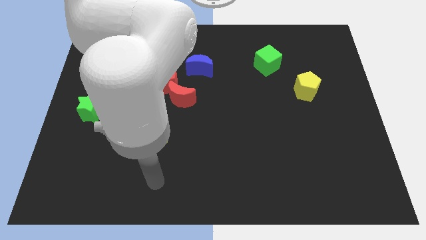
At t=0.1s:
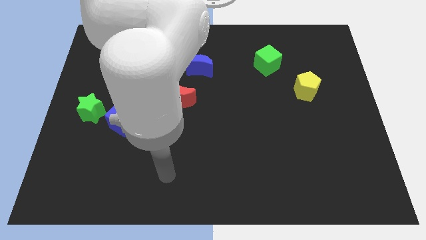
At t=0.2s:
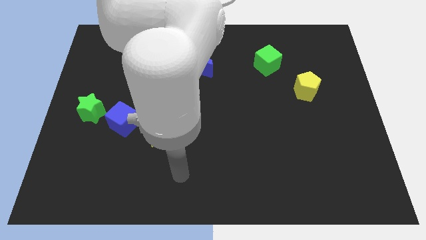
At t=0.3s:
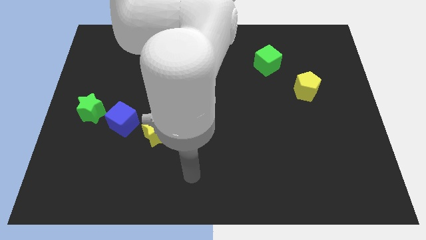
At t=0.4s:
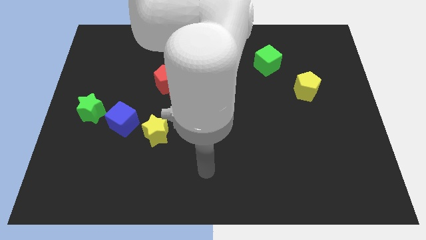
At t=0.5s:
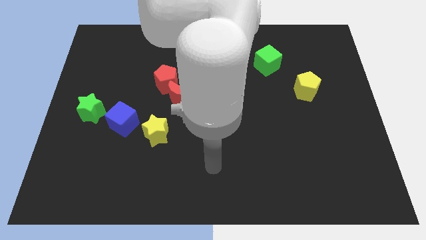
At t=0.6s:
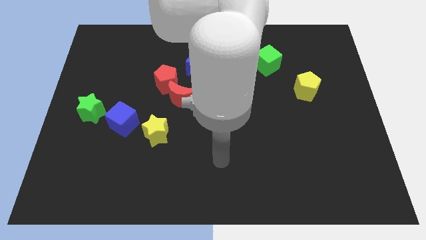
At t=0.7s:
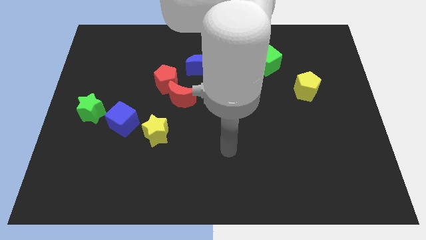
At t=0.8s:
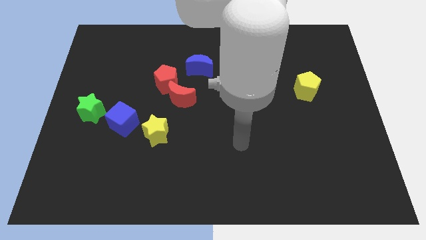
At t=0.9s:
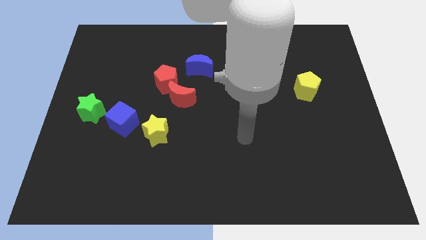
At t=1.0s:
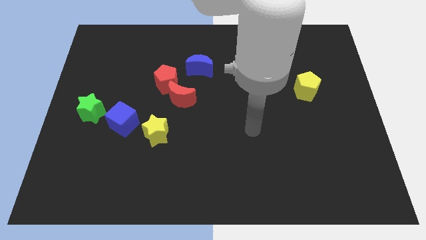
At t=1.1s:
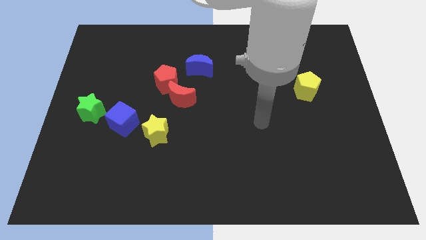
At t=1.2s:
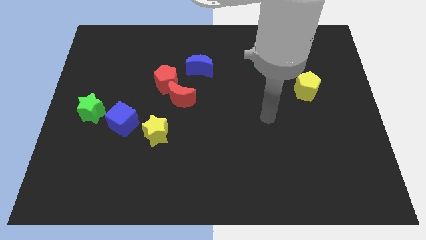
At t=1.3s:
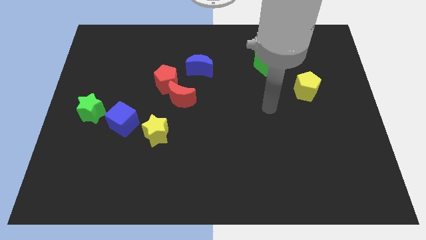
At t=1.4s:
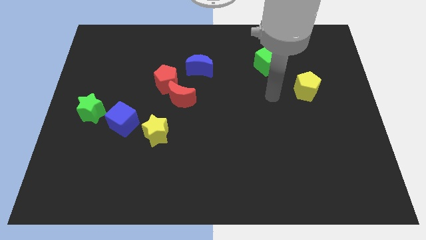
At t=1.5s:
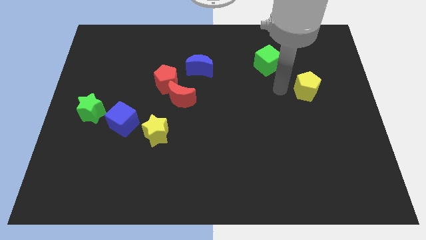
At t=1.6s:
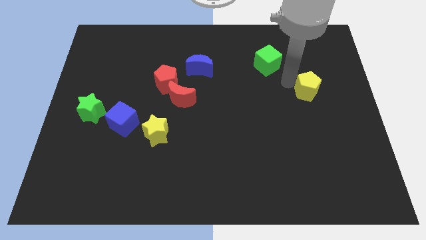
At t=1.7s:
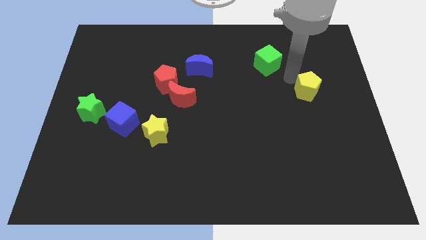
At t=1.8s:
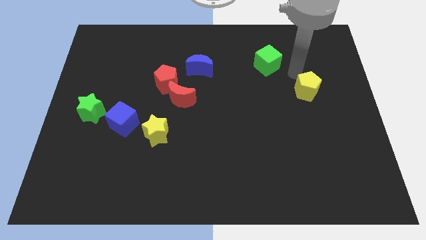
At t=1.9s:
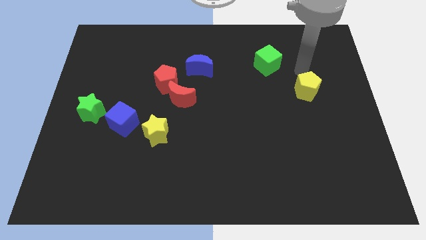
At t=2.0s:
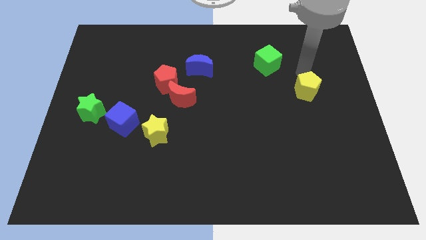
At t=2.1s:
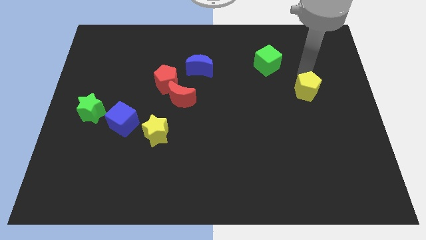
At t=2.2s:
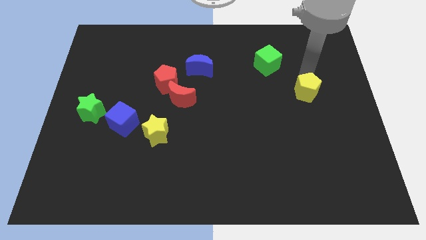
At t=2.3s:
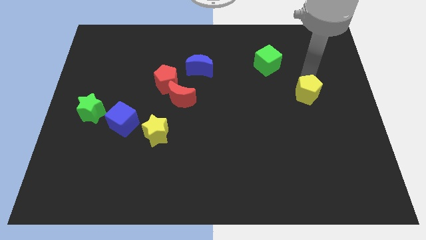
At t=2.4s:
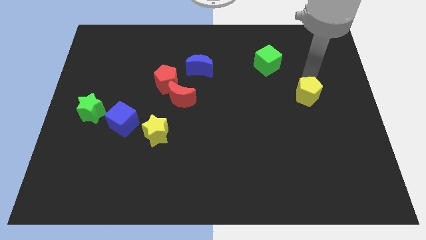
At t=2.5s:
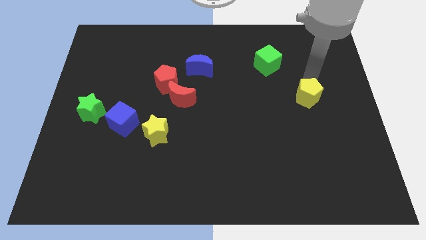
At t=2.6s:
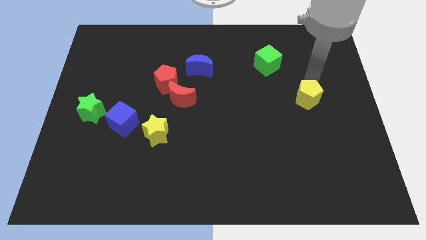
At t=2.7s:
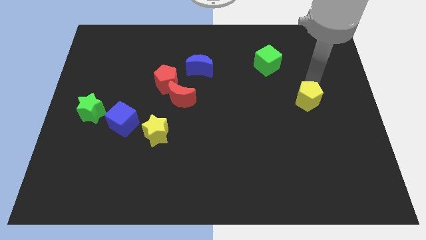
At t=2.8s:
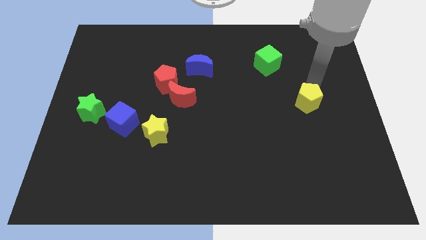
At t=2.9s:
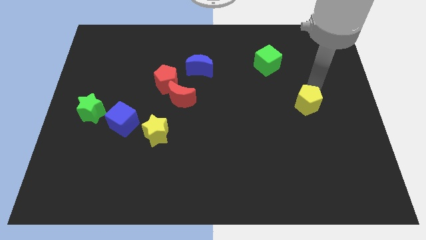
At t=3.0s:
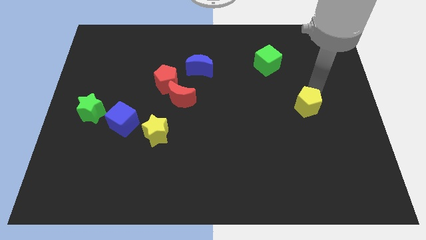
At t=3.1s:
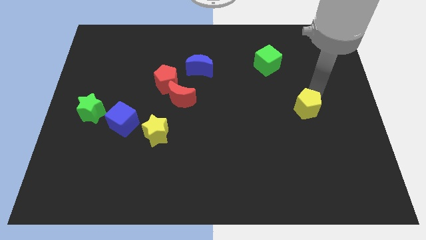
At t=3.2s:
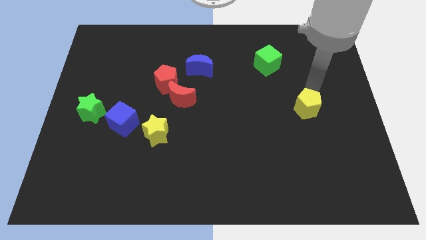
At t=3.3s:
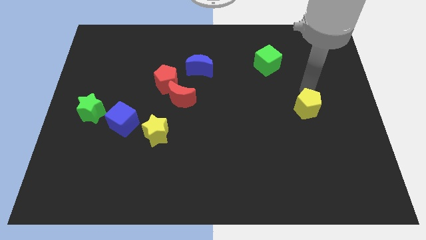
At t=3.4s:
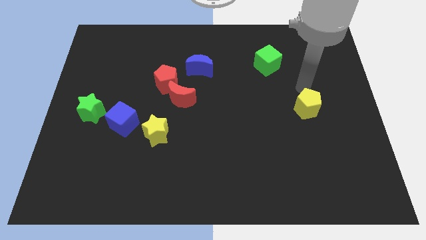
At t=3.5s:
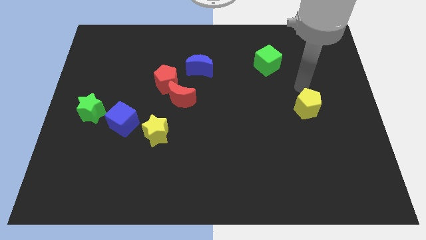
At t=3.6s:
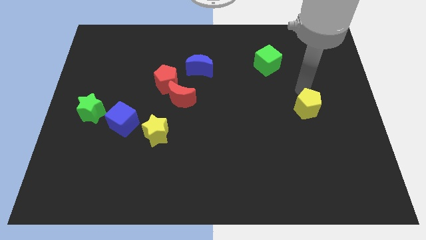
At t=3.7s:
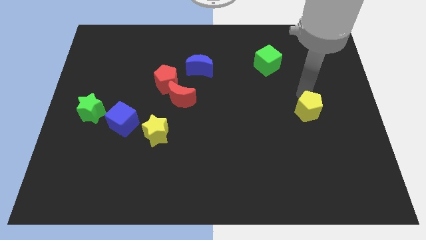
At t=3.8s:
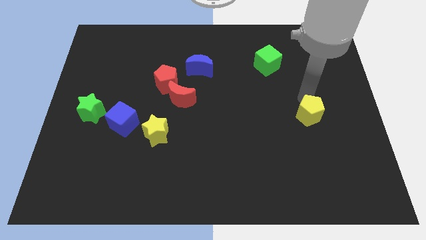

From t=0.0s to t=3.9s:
slightly push the yellow pentagon downwards

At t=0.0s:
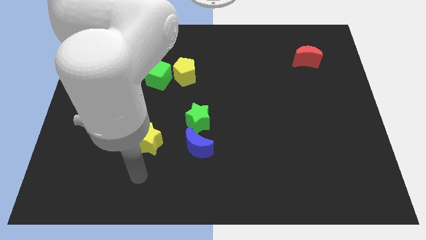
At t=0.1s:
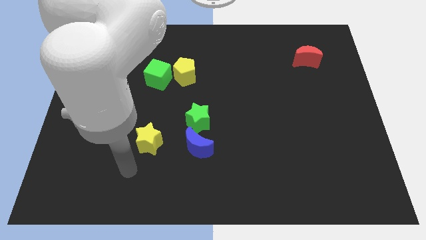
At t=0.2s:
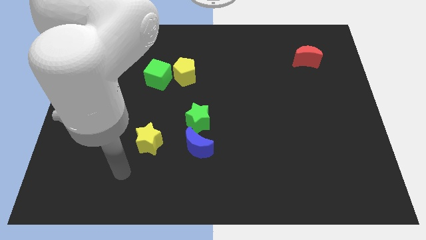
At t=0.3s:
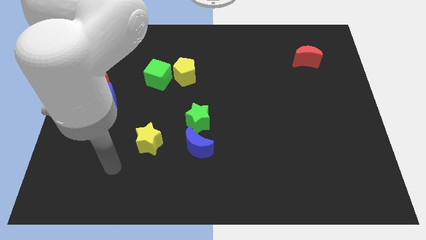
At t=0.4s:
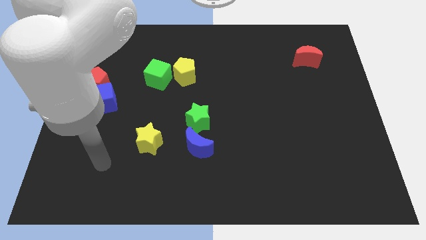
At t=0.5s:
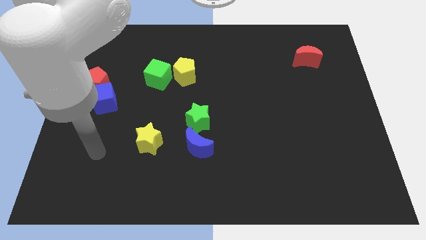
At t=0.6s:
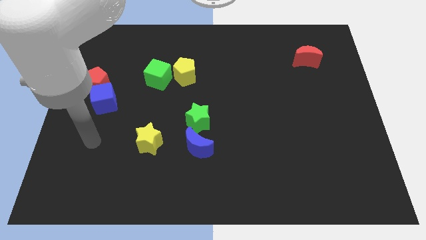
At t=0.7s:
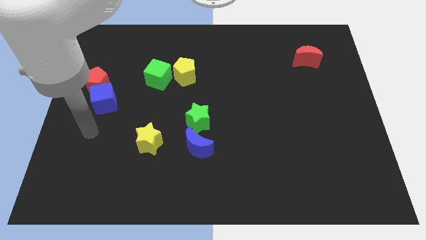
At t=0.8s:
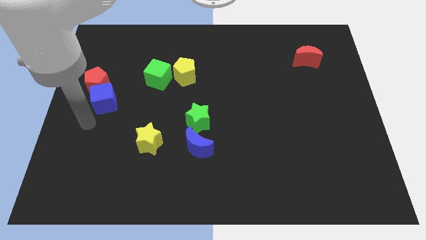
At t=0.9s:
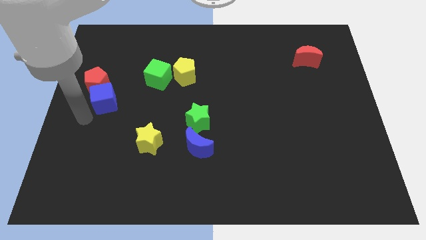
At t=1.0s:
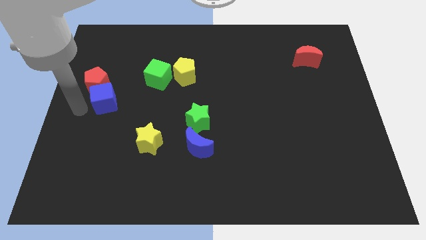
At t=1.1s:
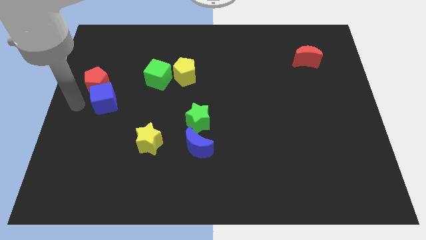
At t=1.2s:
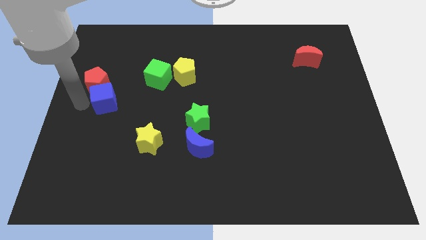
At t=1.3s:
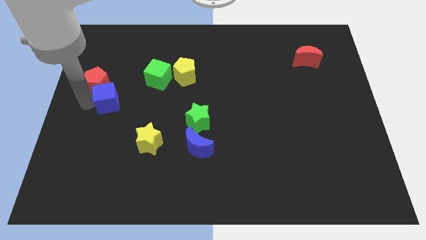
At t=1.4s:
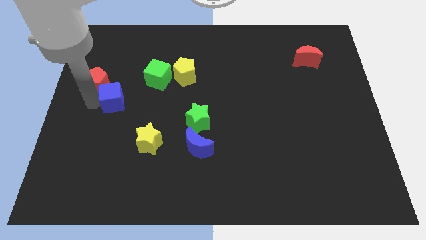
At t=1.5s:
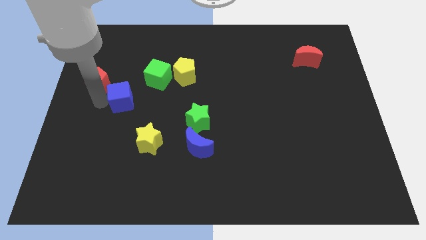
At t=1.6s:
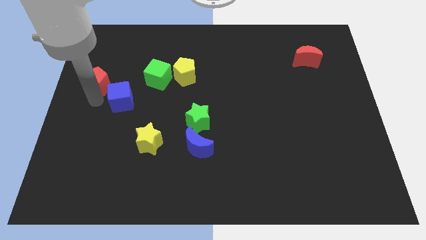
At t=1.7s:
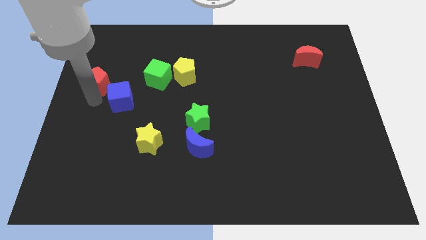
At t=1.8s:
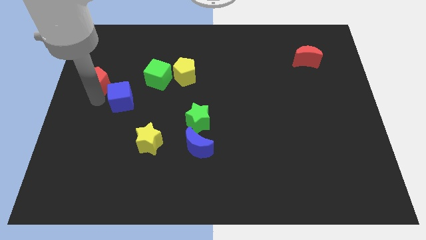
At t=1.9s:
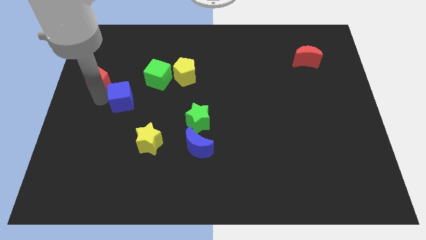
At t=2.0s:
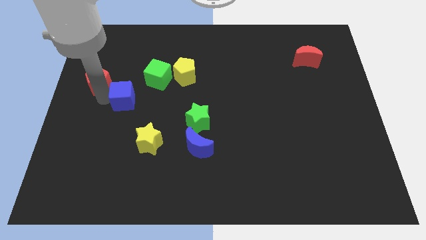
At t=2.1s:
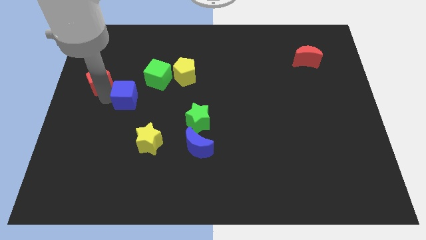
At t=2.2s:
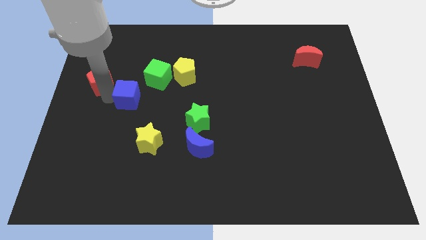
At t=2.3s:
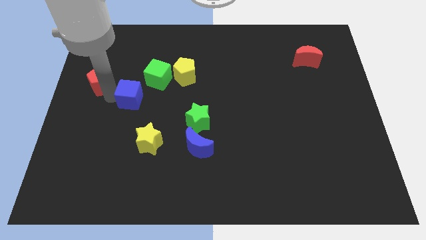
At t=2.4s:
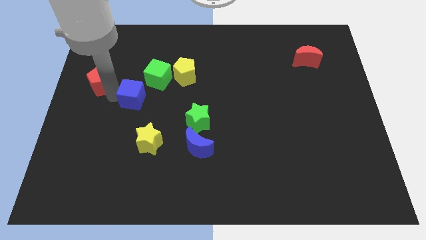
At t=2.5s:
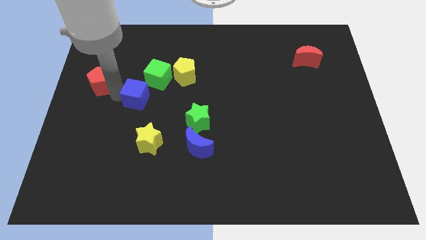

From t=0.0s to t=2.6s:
push the blue cube a little bit to the right

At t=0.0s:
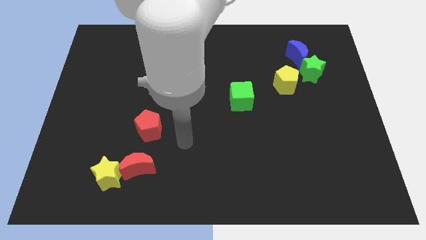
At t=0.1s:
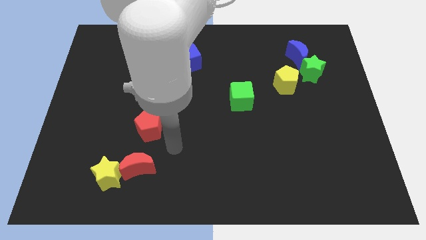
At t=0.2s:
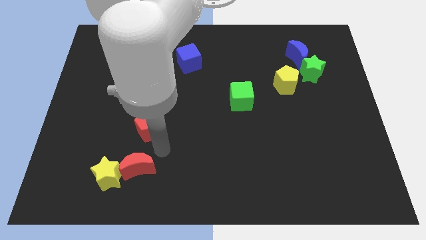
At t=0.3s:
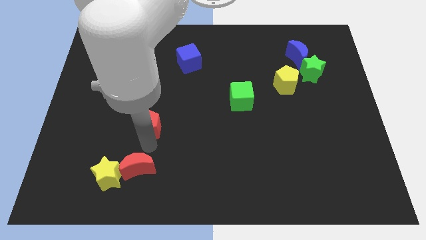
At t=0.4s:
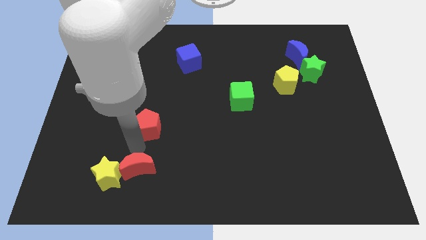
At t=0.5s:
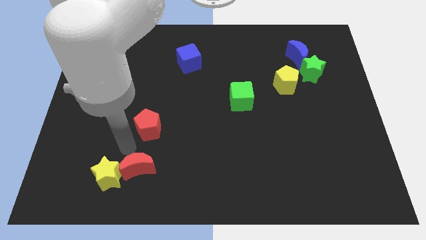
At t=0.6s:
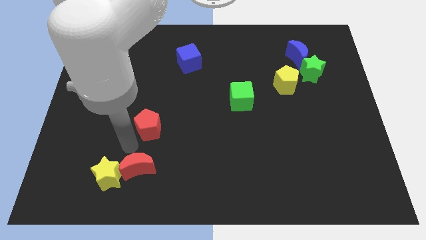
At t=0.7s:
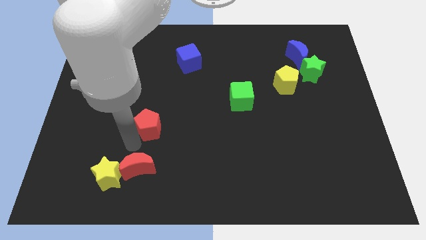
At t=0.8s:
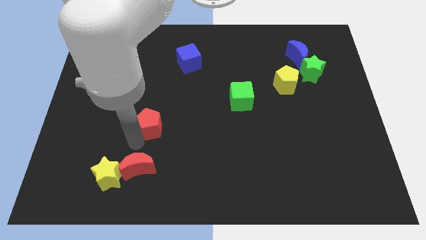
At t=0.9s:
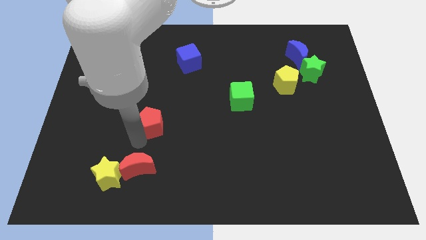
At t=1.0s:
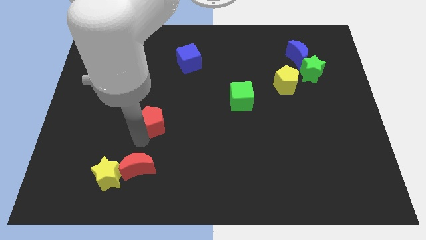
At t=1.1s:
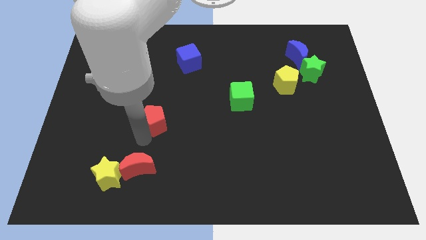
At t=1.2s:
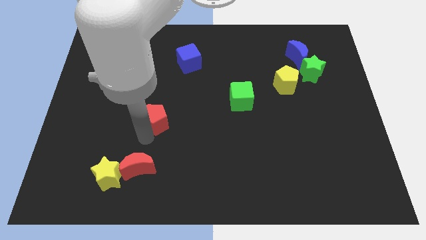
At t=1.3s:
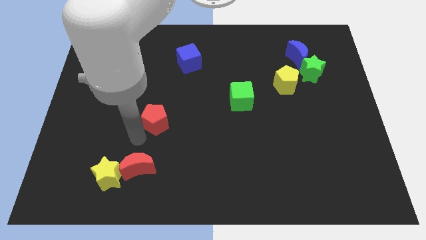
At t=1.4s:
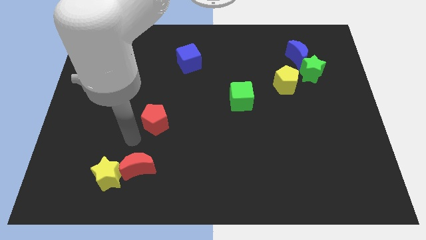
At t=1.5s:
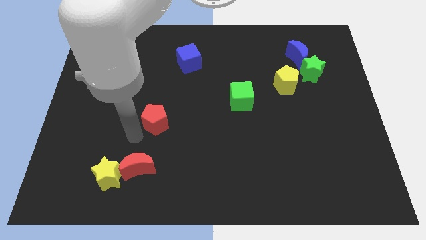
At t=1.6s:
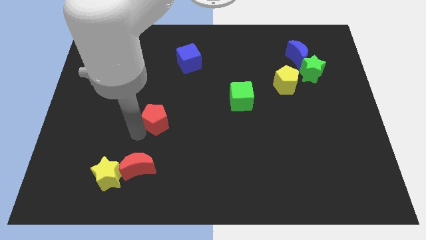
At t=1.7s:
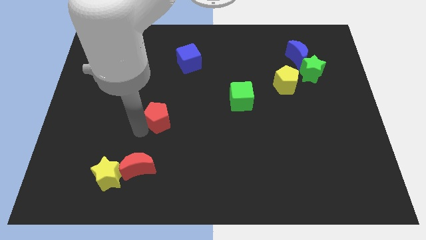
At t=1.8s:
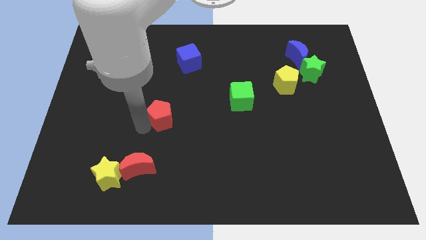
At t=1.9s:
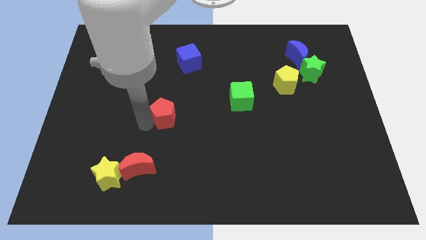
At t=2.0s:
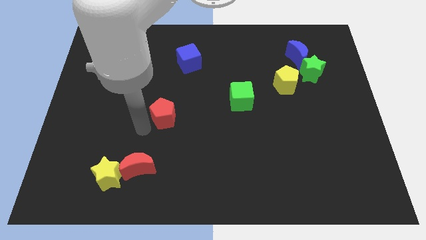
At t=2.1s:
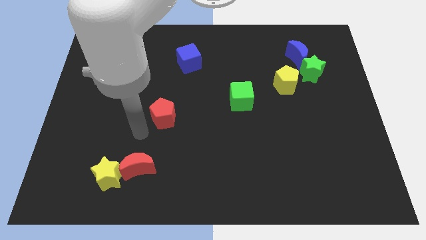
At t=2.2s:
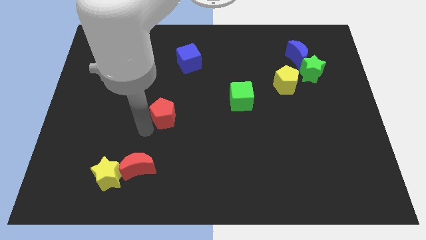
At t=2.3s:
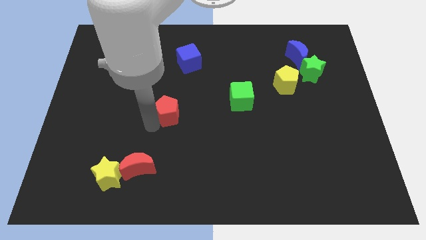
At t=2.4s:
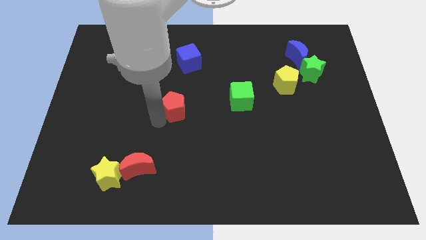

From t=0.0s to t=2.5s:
move the red pentagon diagonally upwards and right slightly
